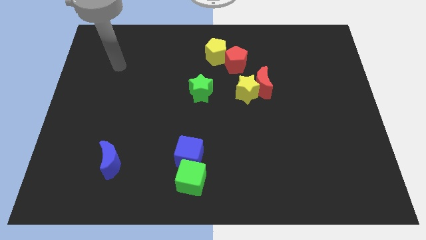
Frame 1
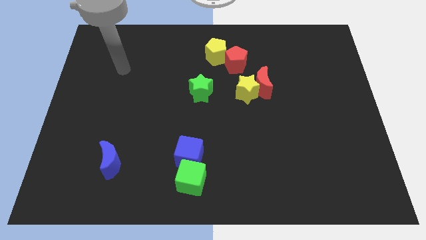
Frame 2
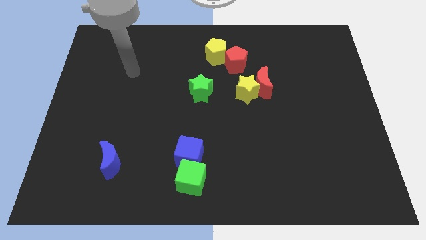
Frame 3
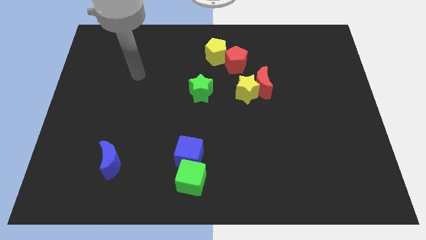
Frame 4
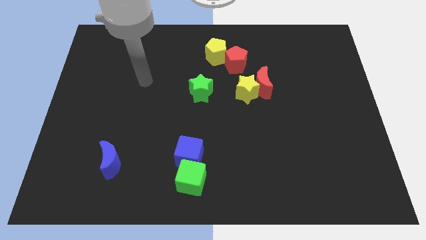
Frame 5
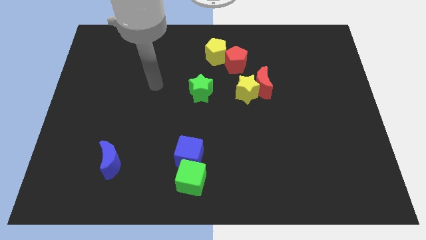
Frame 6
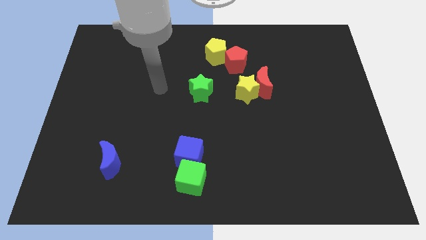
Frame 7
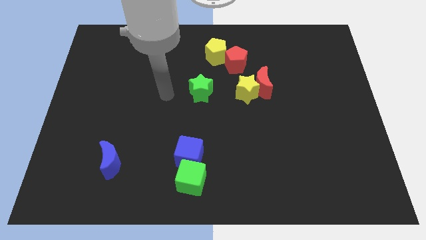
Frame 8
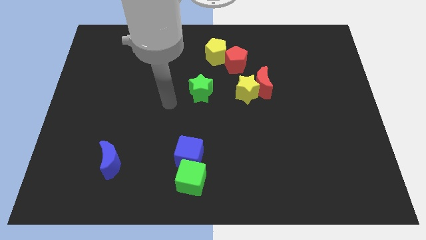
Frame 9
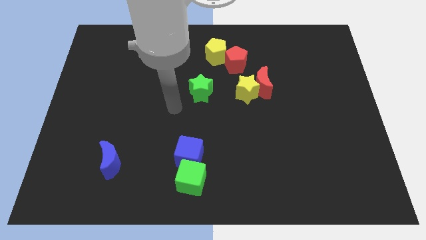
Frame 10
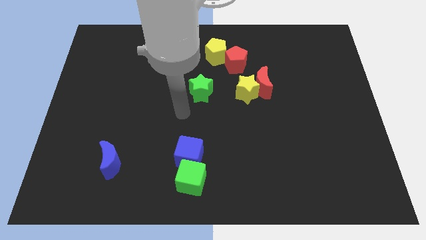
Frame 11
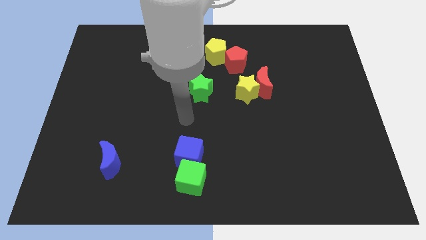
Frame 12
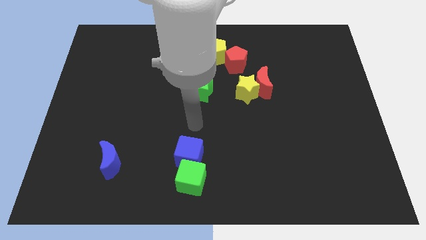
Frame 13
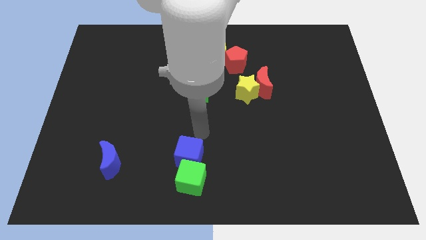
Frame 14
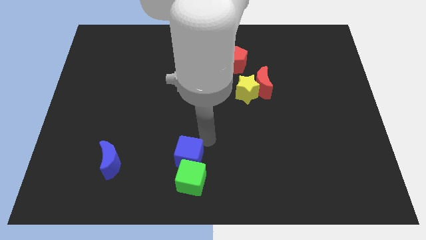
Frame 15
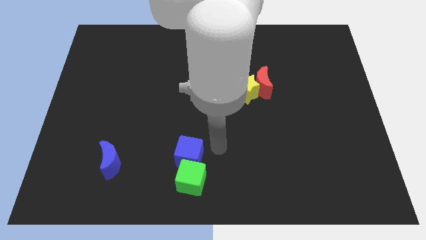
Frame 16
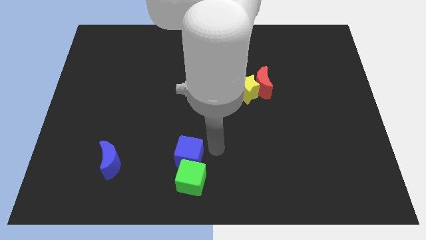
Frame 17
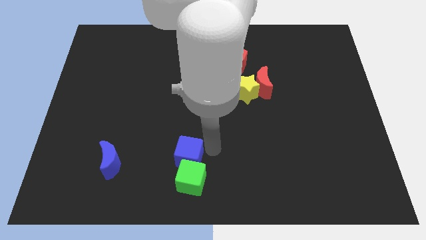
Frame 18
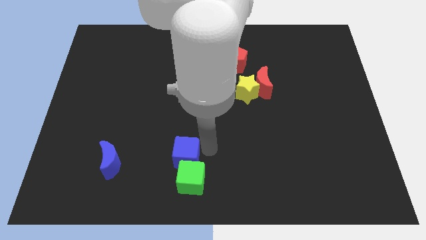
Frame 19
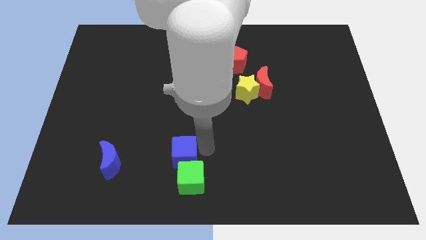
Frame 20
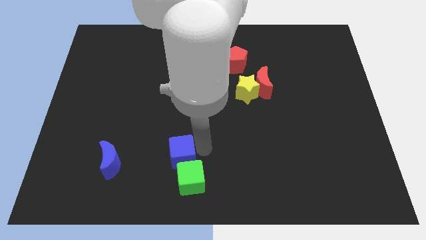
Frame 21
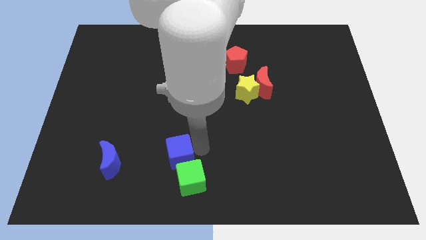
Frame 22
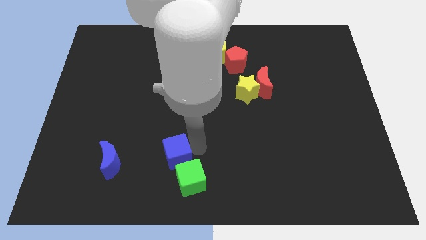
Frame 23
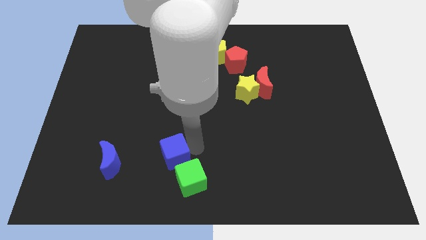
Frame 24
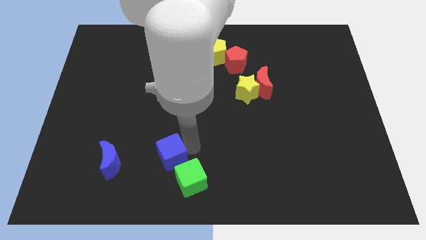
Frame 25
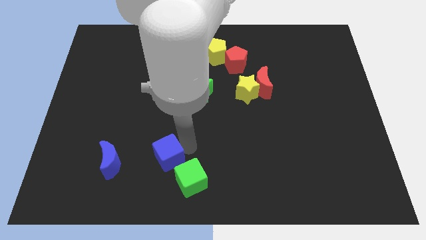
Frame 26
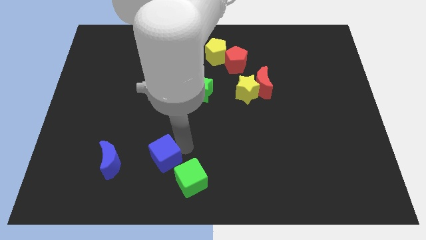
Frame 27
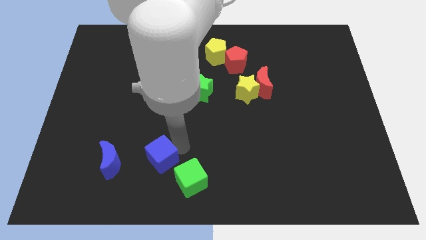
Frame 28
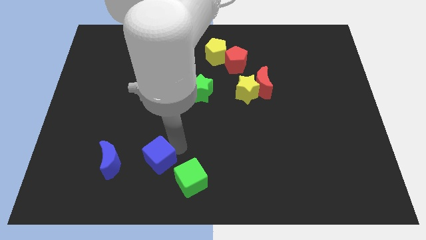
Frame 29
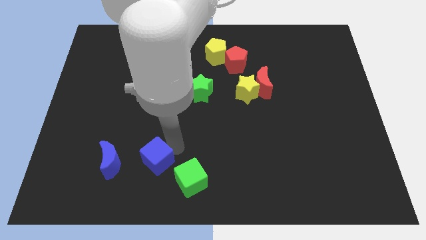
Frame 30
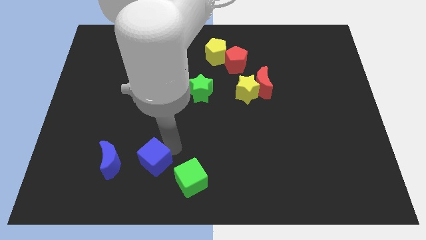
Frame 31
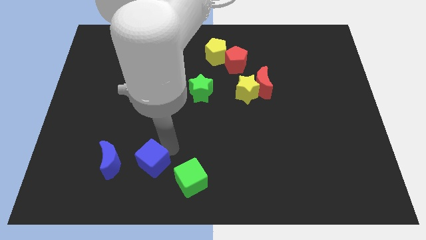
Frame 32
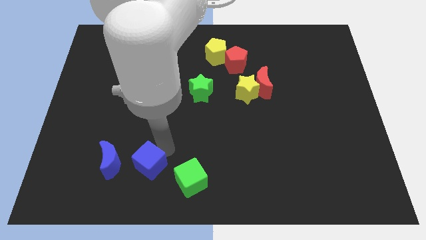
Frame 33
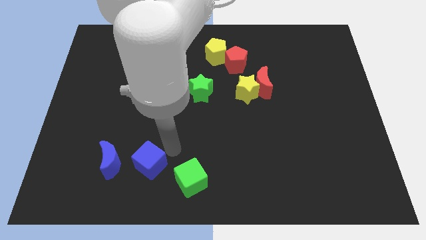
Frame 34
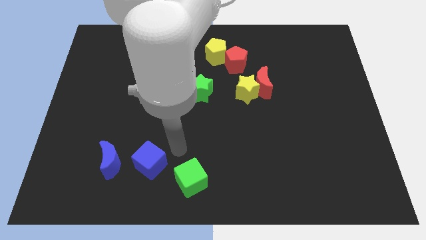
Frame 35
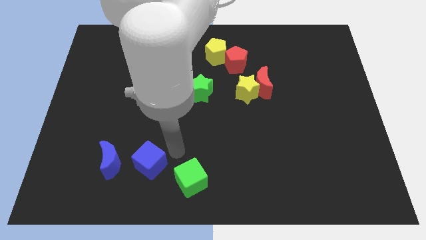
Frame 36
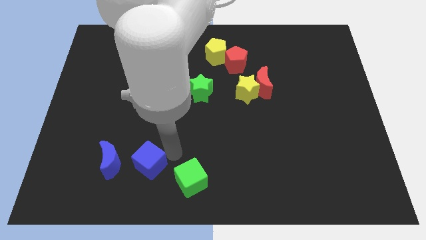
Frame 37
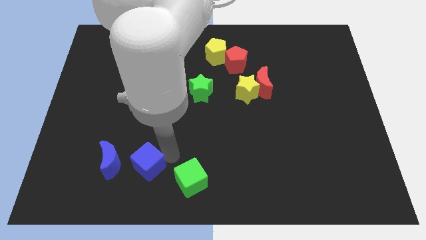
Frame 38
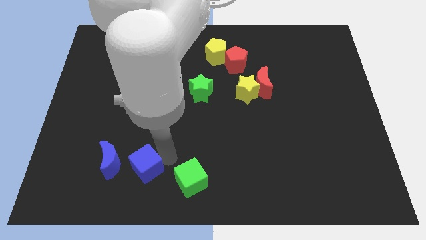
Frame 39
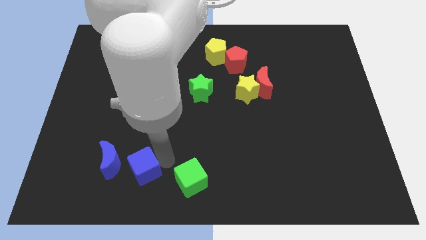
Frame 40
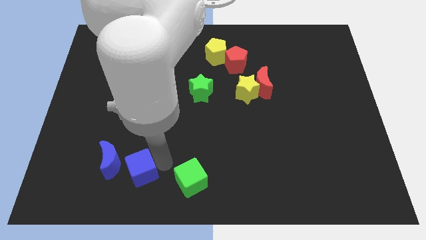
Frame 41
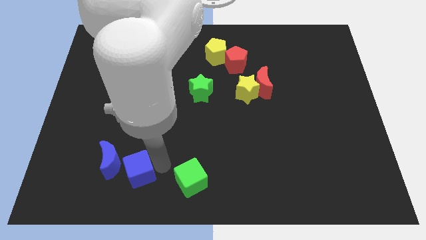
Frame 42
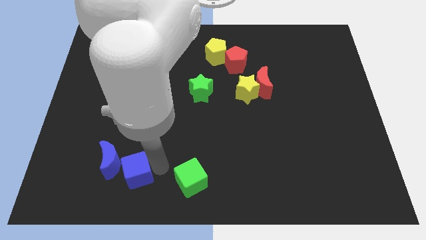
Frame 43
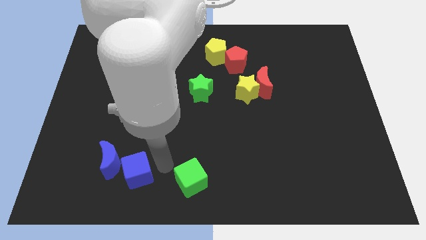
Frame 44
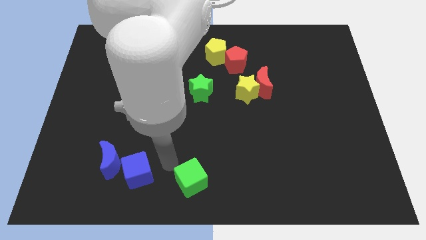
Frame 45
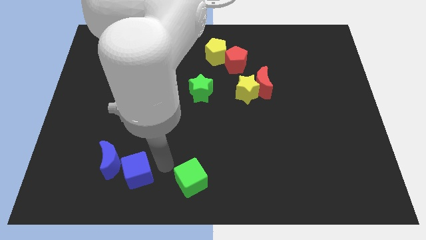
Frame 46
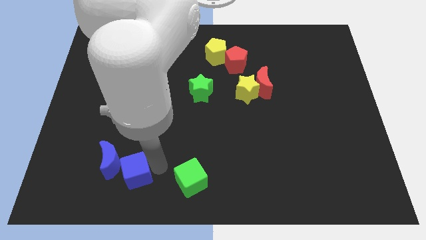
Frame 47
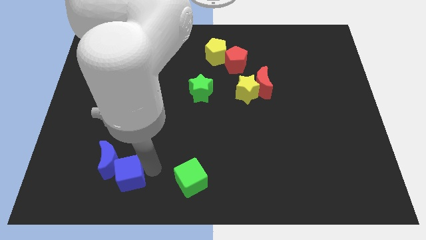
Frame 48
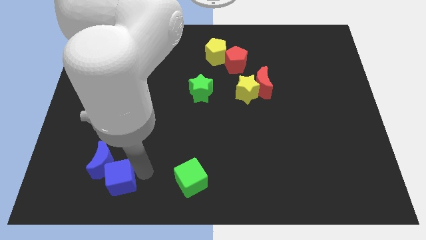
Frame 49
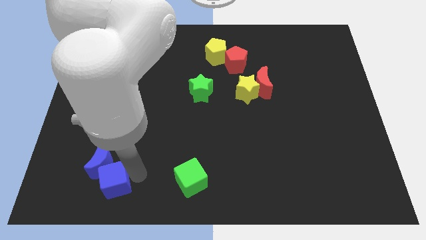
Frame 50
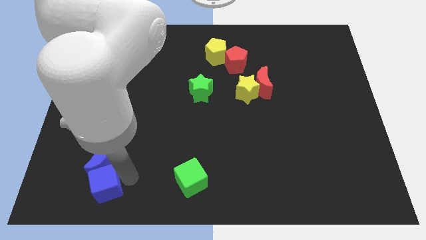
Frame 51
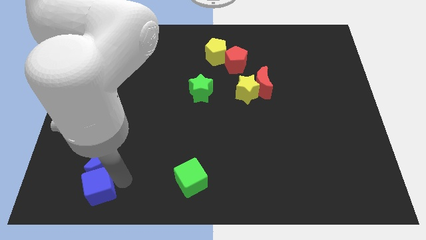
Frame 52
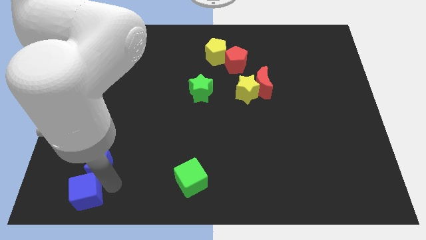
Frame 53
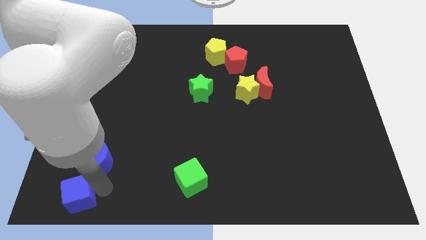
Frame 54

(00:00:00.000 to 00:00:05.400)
slide the blue cube to the bottom left

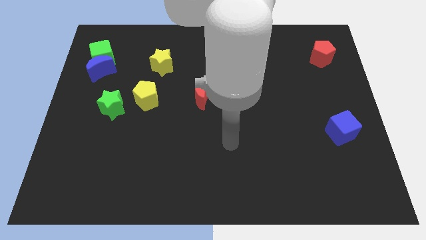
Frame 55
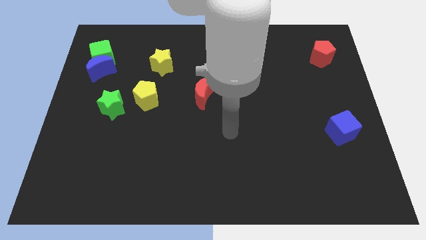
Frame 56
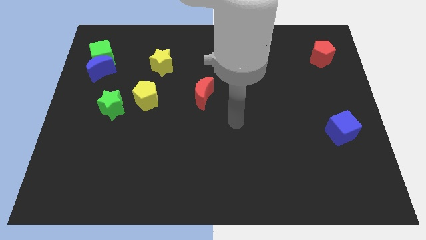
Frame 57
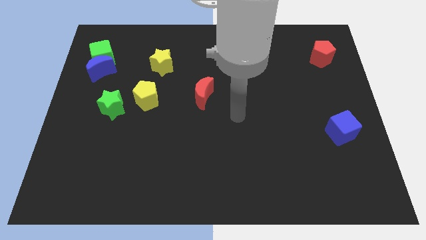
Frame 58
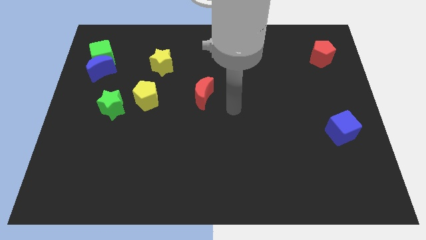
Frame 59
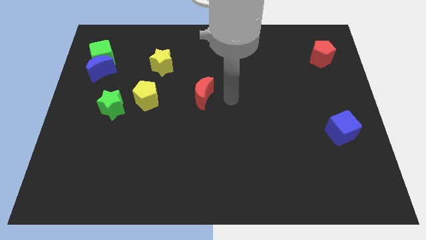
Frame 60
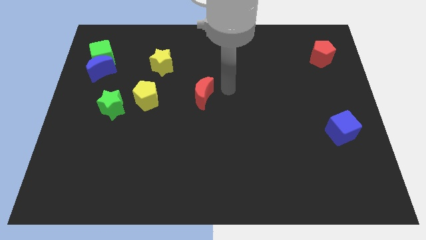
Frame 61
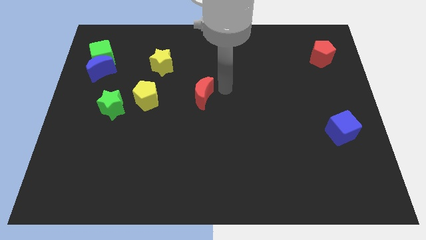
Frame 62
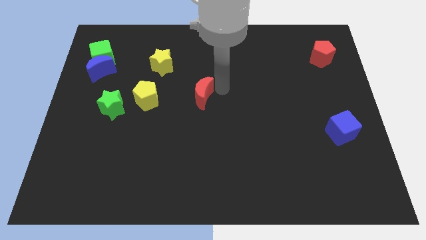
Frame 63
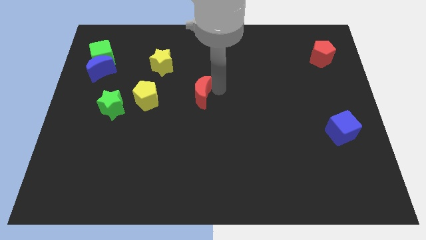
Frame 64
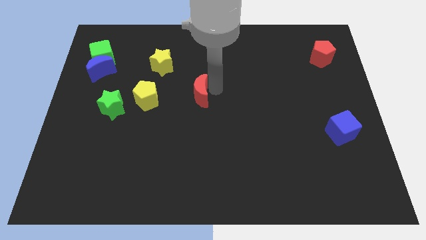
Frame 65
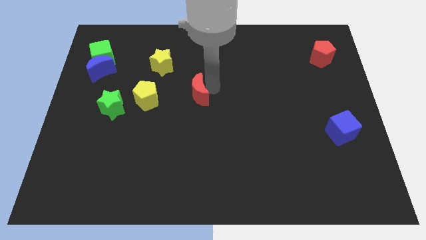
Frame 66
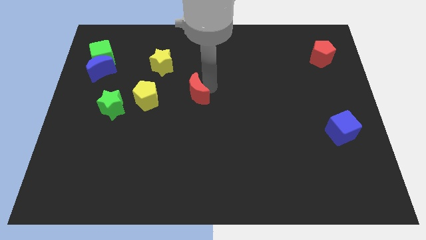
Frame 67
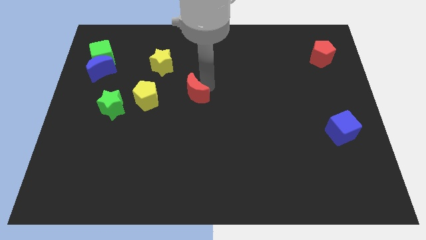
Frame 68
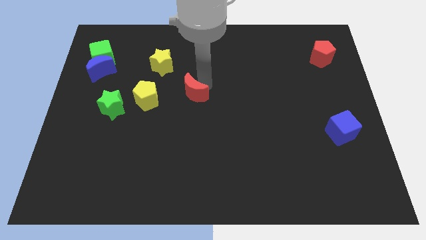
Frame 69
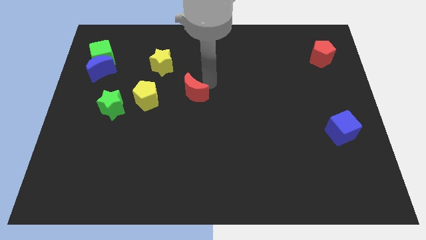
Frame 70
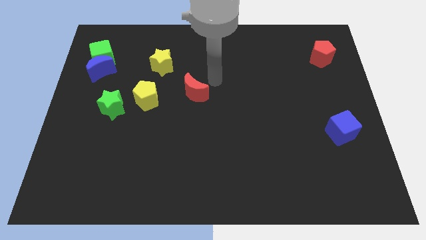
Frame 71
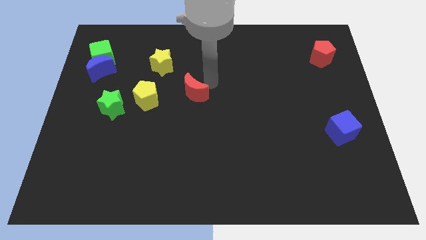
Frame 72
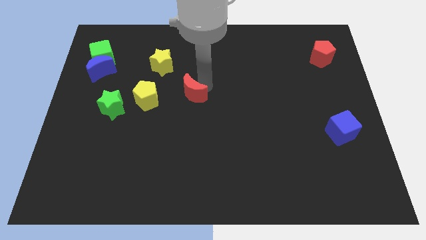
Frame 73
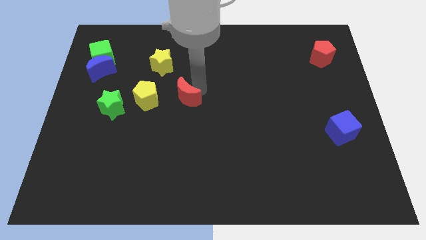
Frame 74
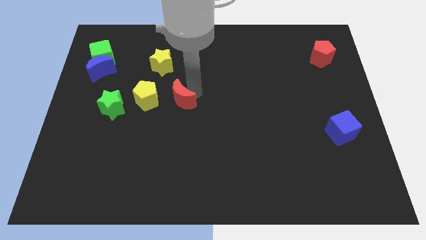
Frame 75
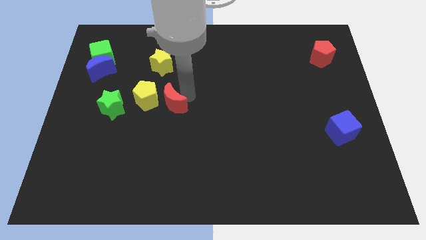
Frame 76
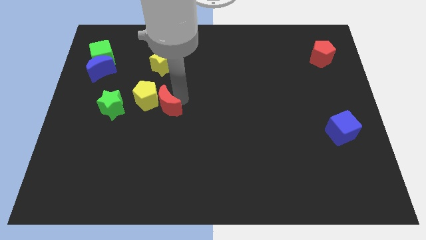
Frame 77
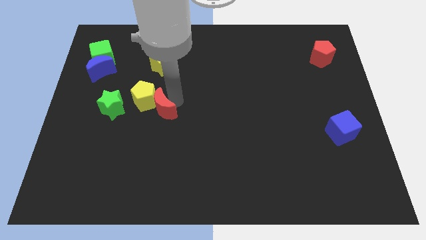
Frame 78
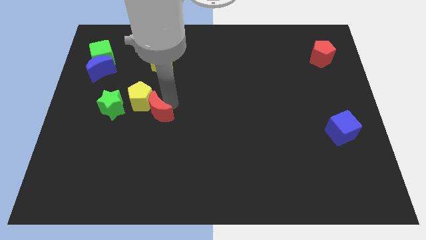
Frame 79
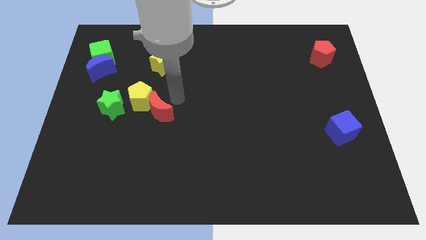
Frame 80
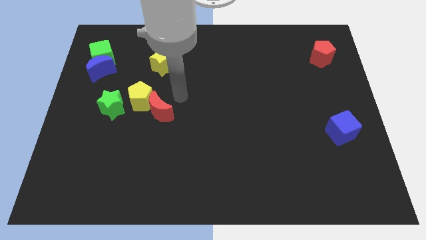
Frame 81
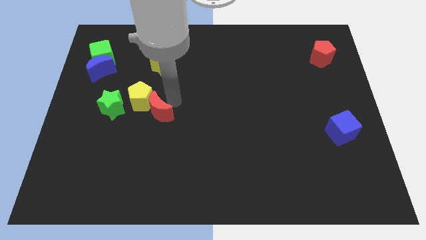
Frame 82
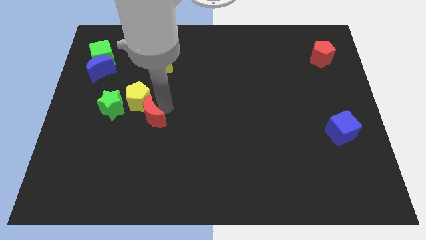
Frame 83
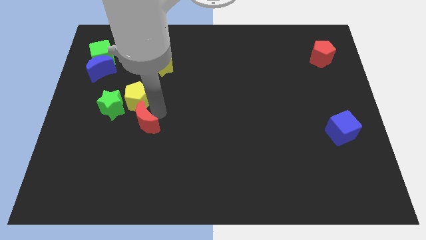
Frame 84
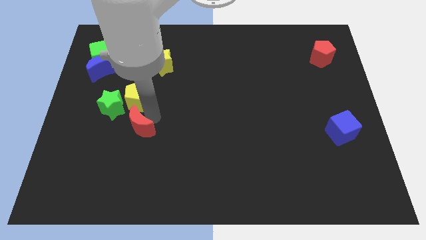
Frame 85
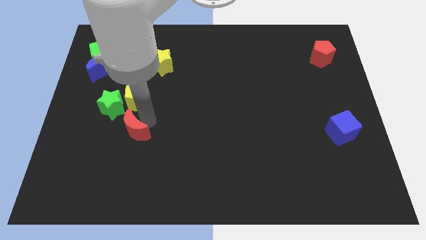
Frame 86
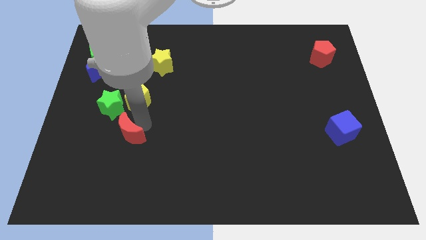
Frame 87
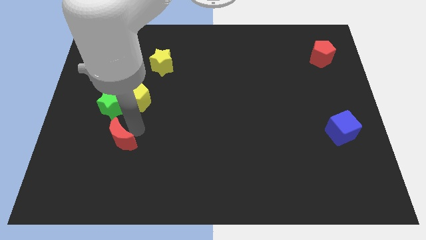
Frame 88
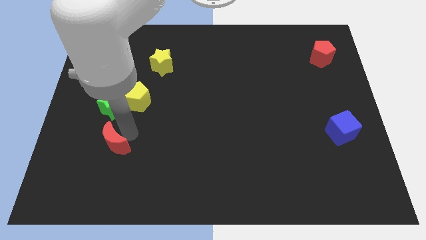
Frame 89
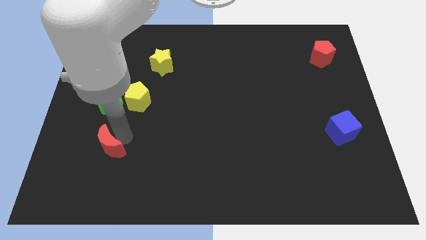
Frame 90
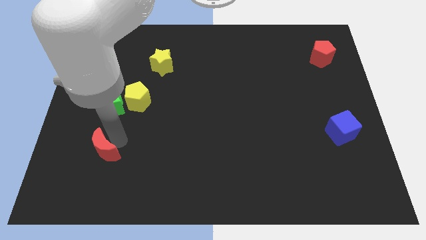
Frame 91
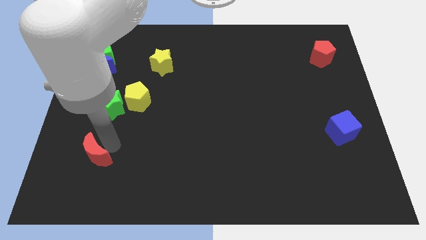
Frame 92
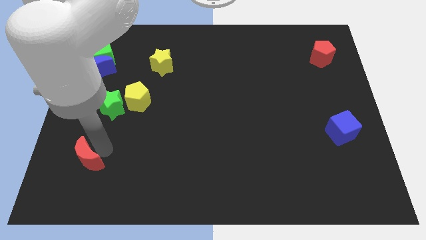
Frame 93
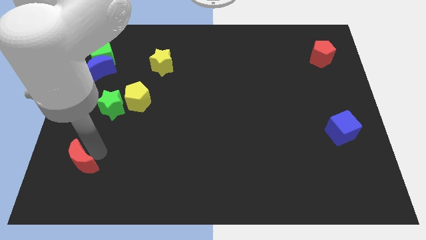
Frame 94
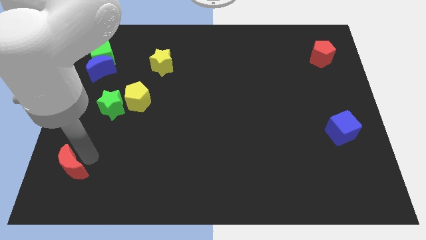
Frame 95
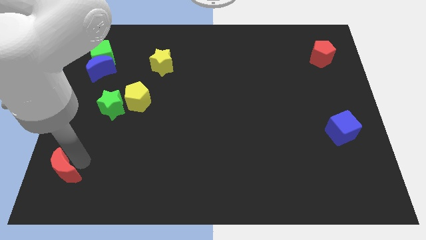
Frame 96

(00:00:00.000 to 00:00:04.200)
put the red moon to the bottom left
